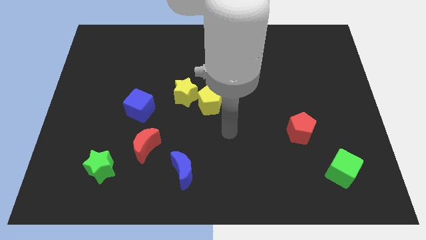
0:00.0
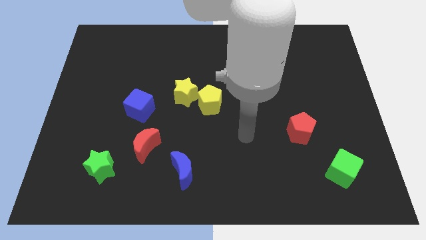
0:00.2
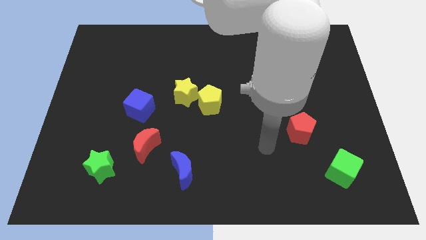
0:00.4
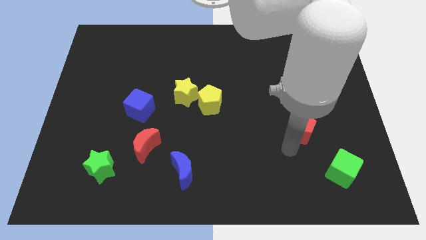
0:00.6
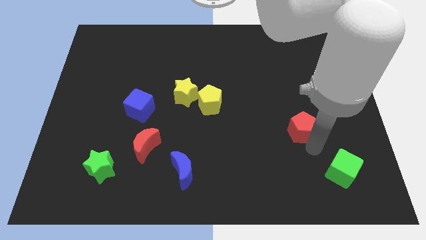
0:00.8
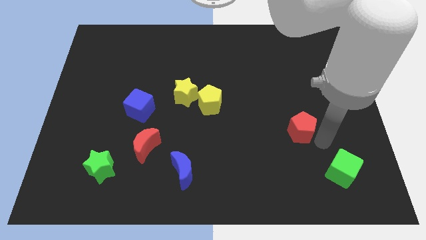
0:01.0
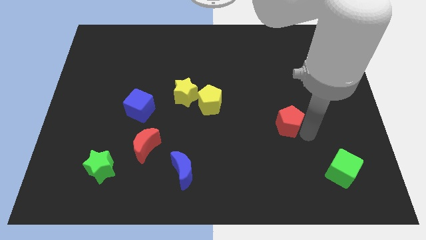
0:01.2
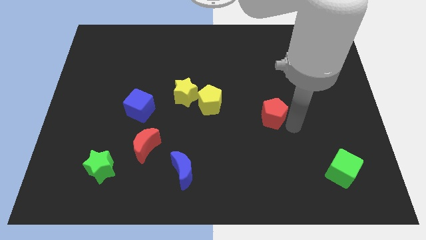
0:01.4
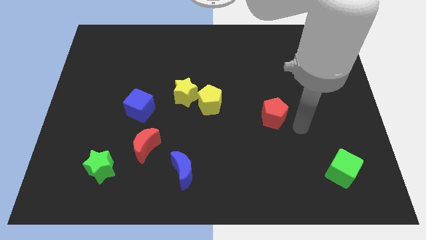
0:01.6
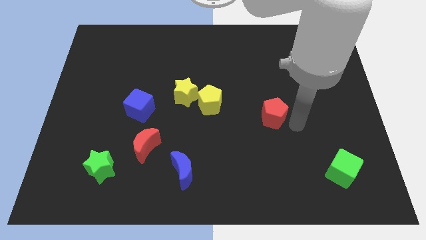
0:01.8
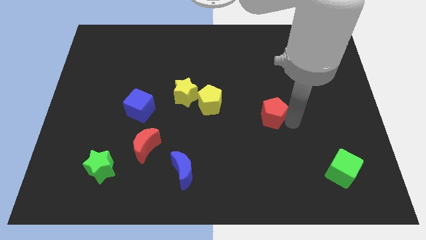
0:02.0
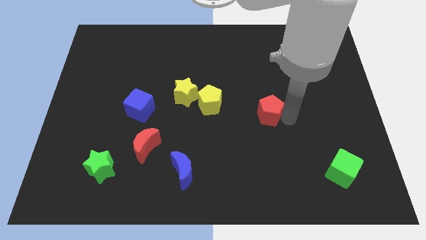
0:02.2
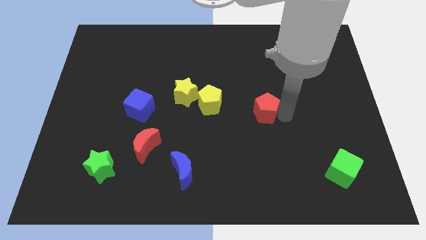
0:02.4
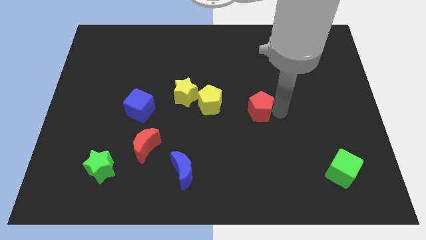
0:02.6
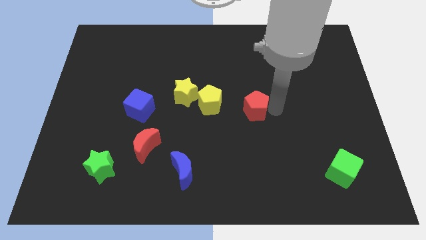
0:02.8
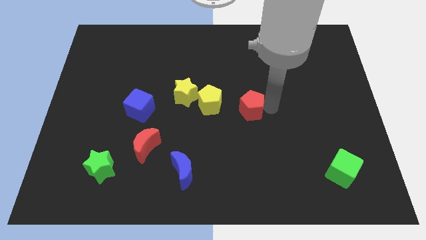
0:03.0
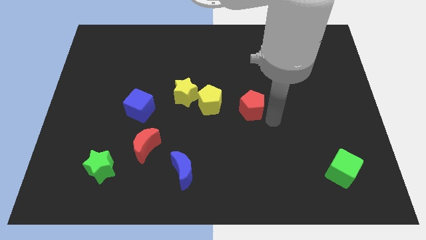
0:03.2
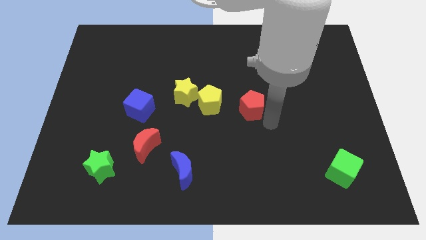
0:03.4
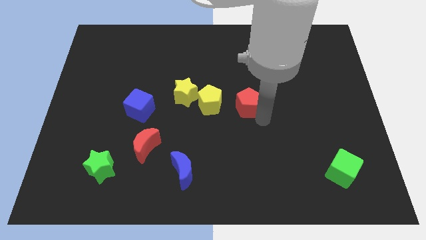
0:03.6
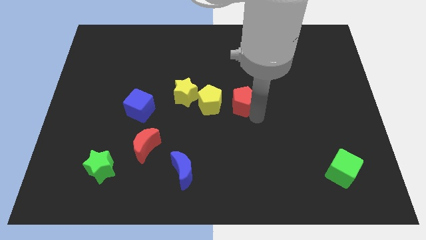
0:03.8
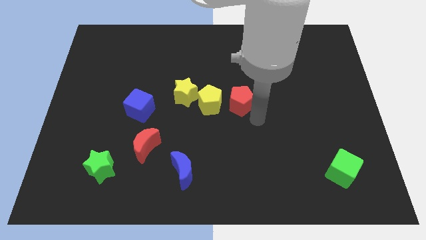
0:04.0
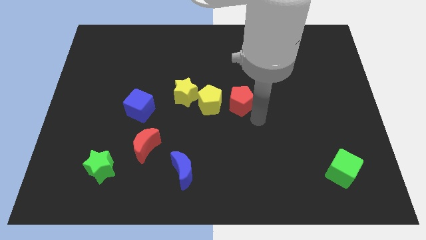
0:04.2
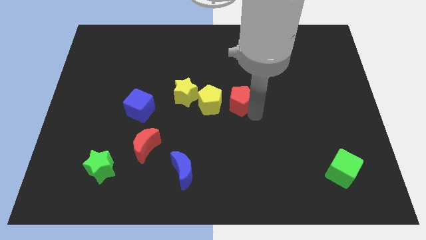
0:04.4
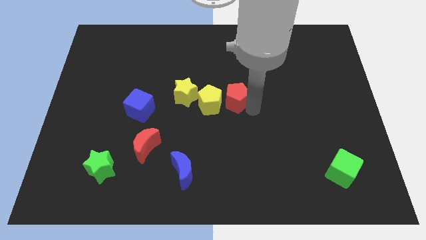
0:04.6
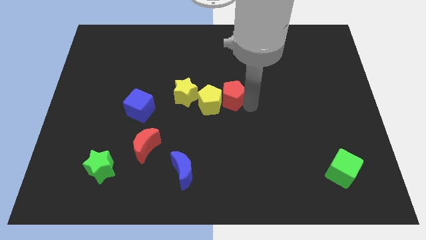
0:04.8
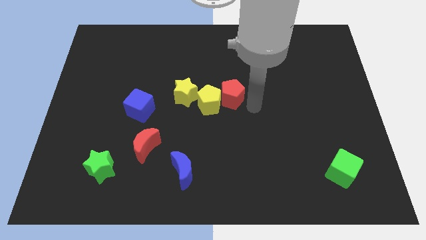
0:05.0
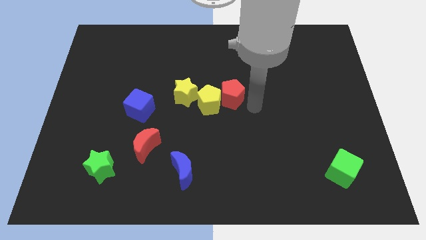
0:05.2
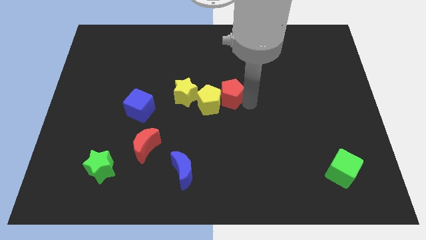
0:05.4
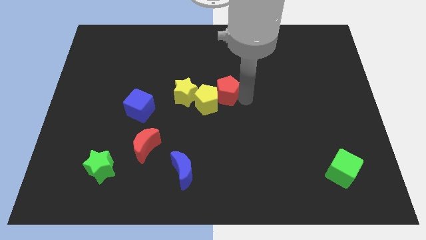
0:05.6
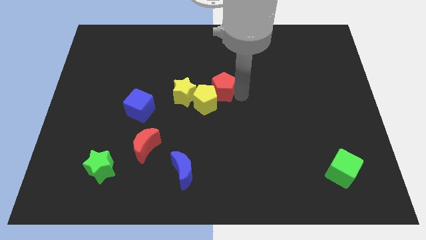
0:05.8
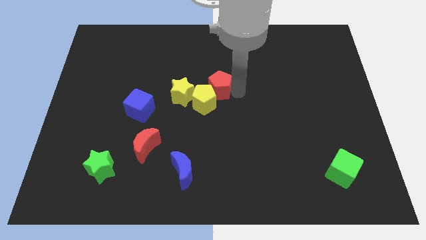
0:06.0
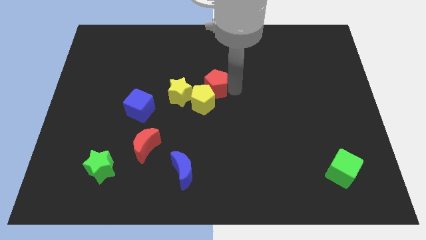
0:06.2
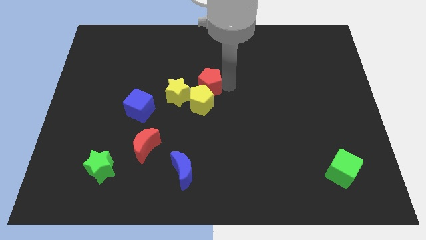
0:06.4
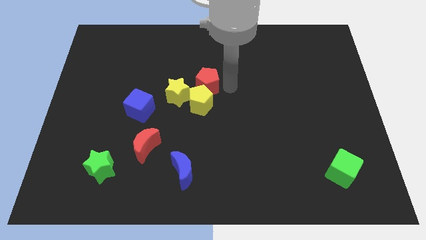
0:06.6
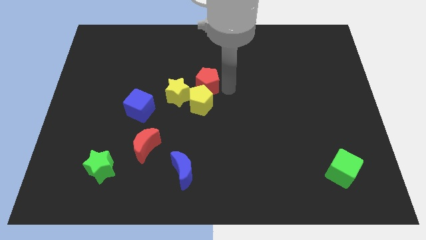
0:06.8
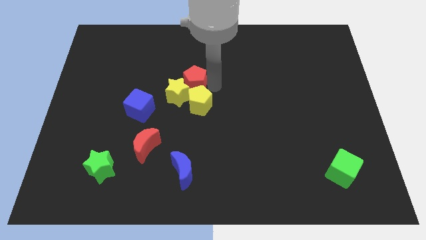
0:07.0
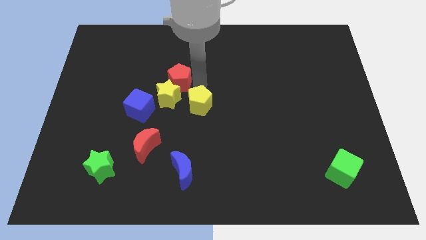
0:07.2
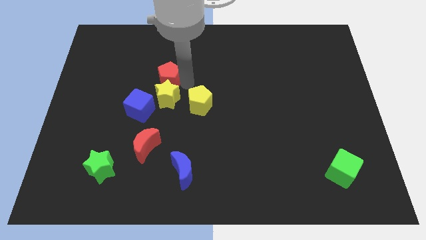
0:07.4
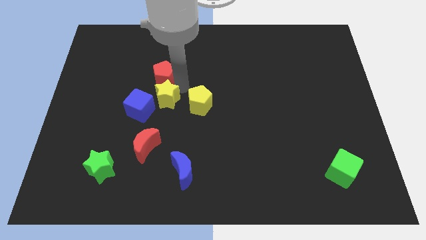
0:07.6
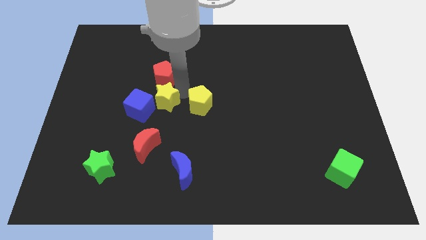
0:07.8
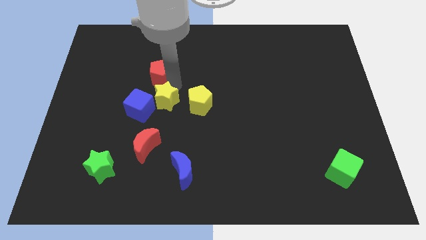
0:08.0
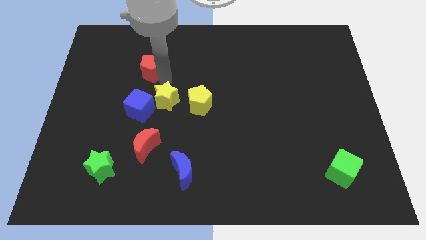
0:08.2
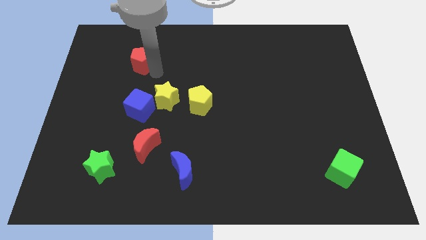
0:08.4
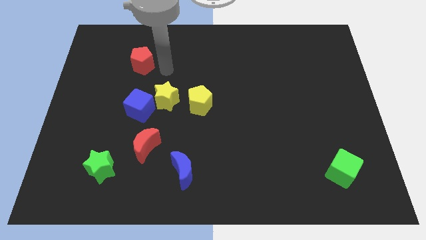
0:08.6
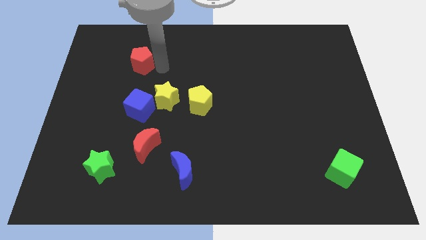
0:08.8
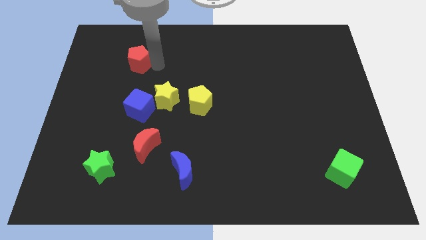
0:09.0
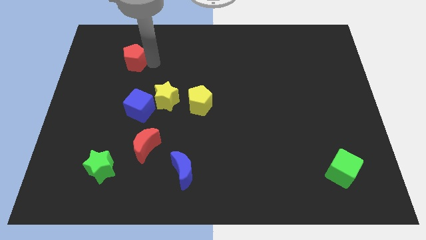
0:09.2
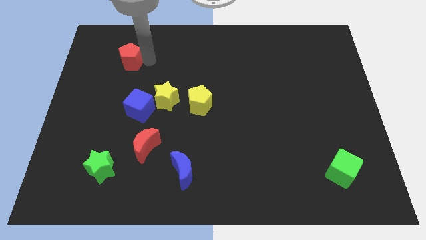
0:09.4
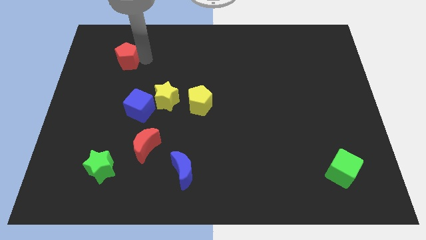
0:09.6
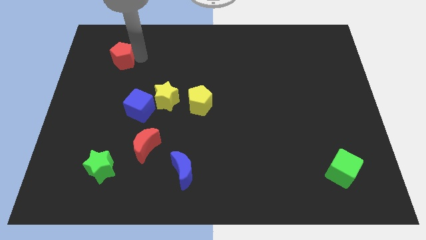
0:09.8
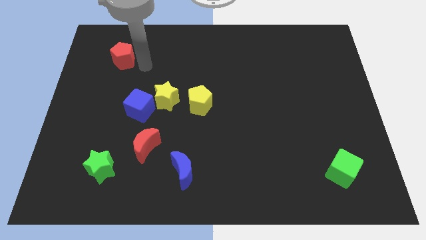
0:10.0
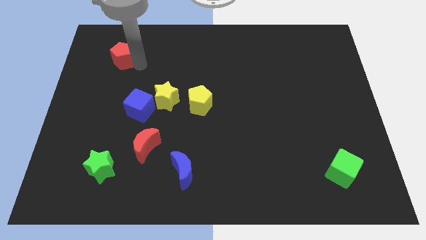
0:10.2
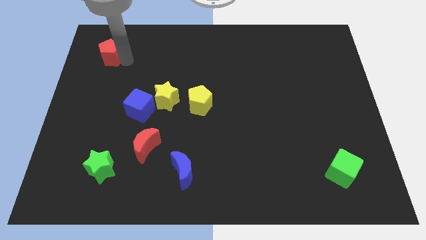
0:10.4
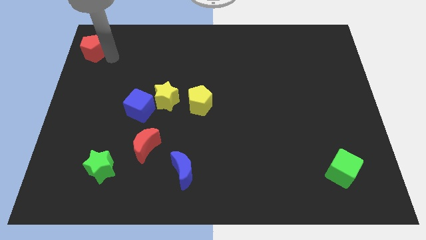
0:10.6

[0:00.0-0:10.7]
slide the red pentagon to the top left

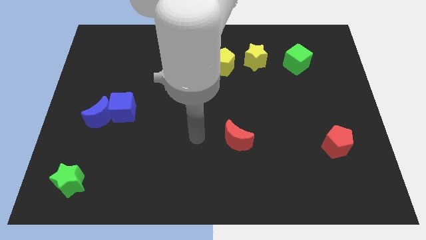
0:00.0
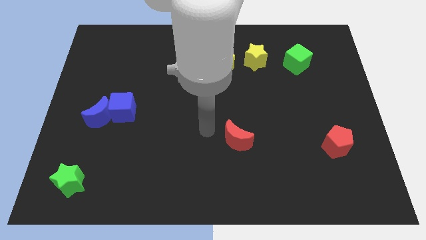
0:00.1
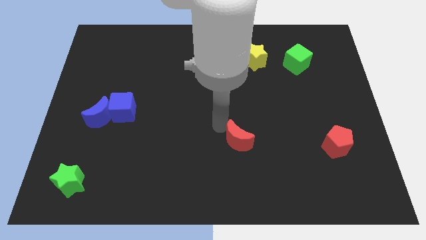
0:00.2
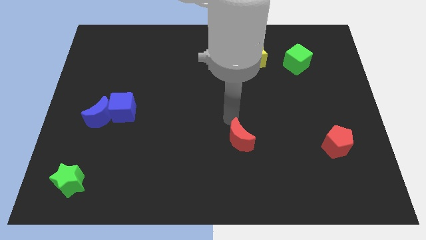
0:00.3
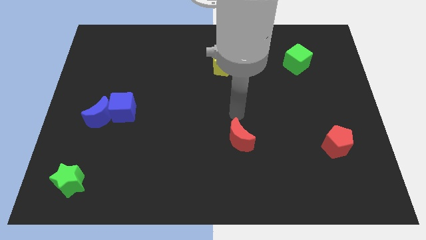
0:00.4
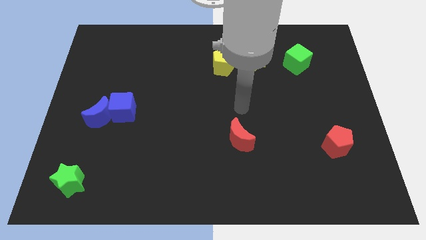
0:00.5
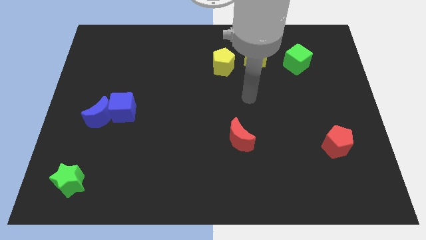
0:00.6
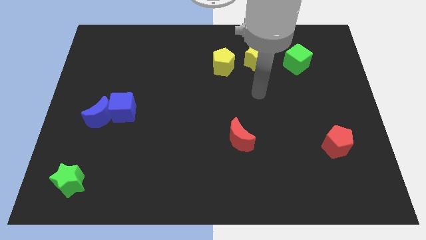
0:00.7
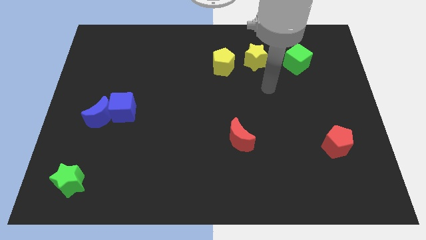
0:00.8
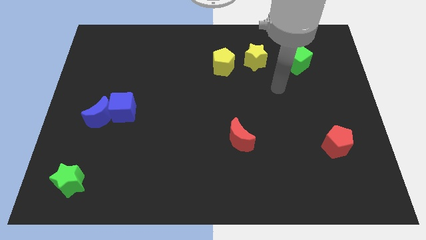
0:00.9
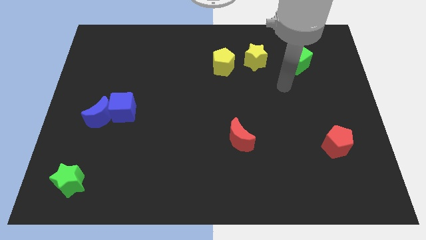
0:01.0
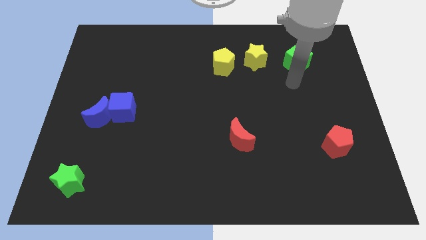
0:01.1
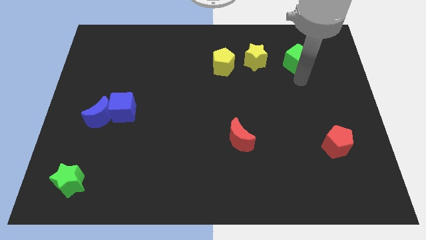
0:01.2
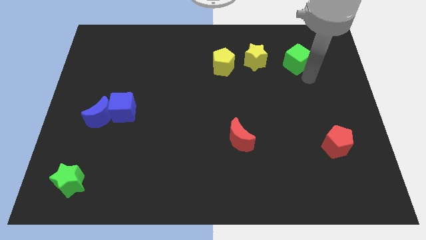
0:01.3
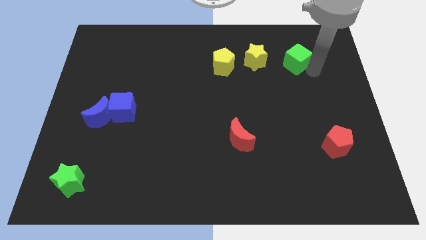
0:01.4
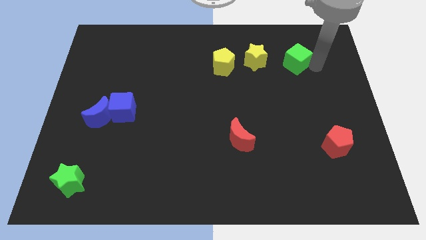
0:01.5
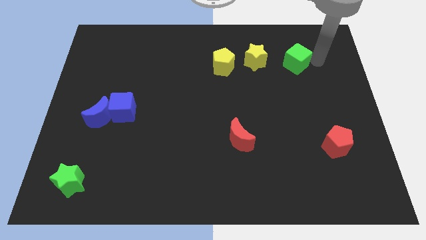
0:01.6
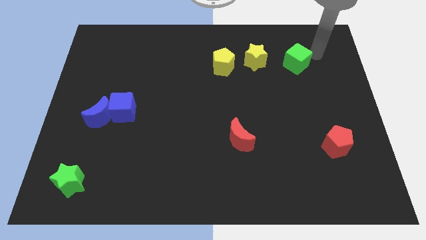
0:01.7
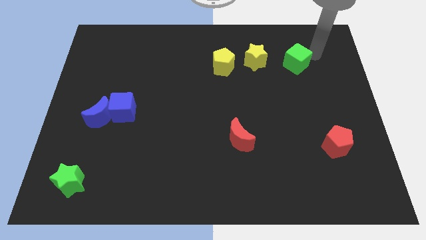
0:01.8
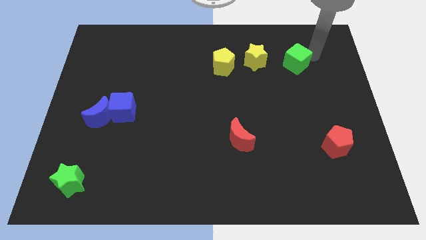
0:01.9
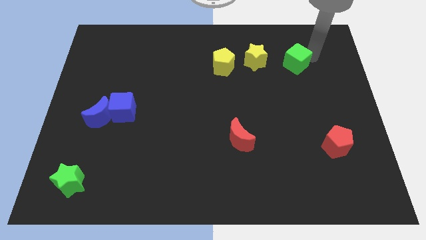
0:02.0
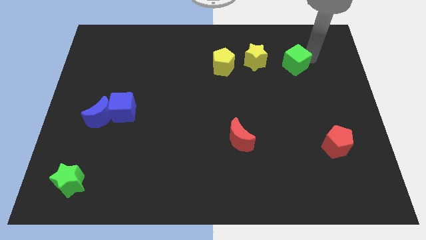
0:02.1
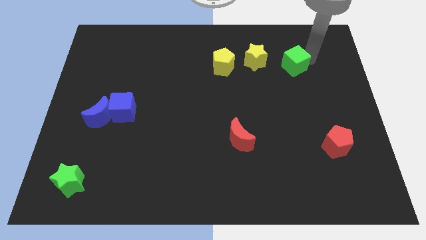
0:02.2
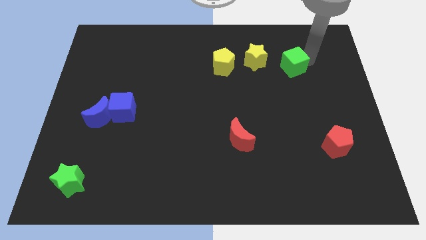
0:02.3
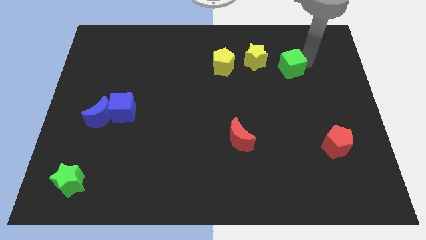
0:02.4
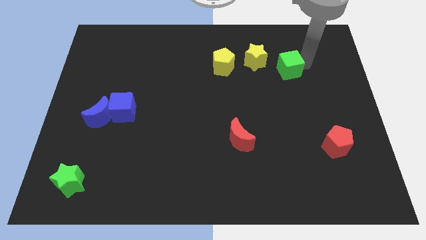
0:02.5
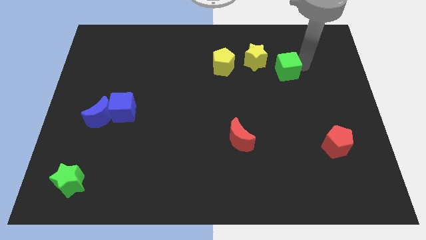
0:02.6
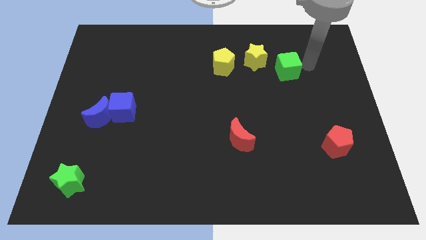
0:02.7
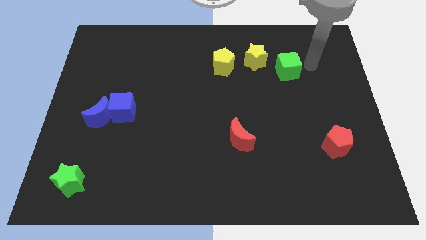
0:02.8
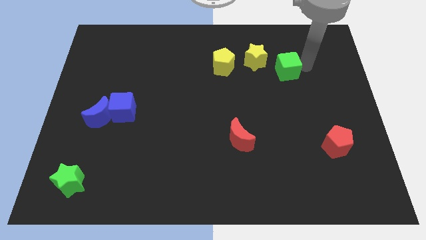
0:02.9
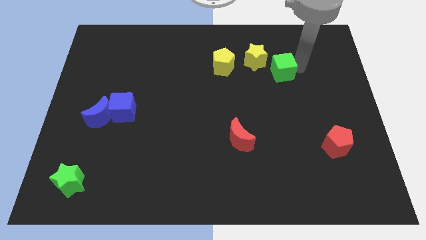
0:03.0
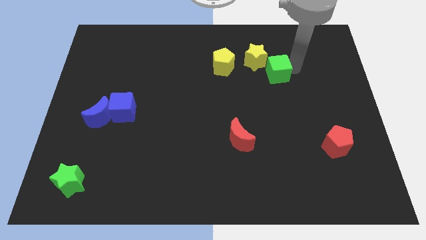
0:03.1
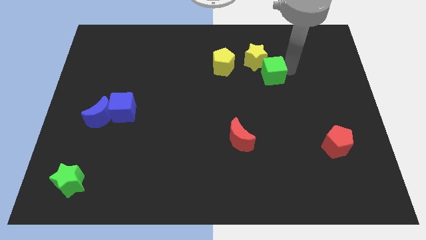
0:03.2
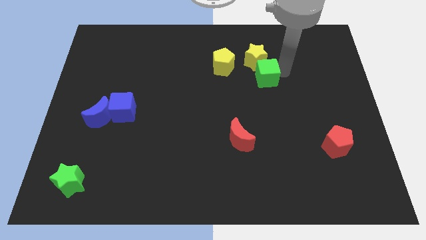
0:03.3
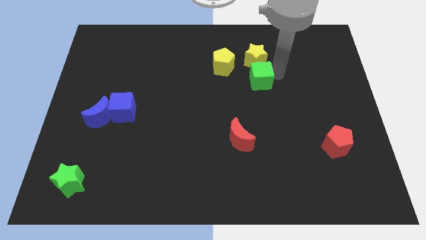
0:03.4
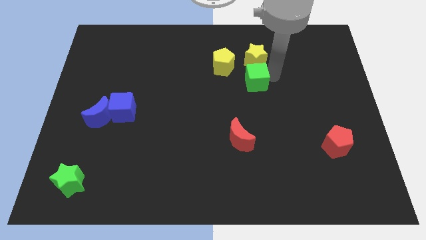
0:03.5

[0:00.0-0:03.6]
slide the green cube to the middle of the board
